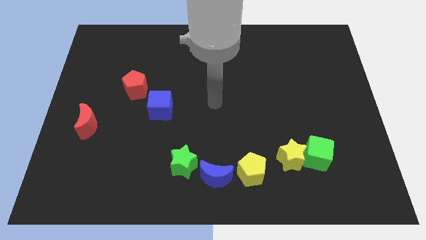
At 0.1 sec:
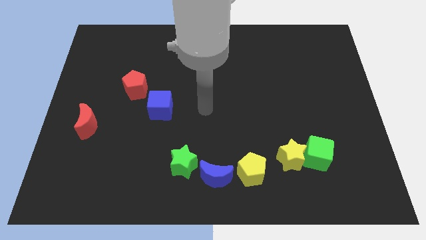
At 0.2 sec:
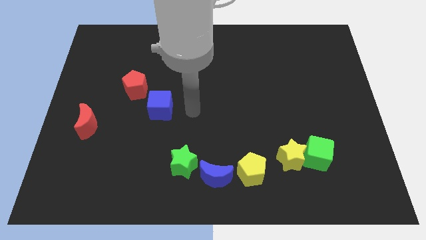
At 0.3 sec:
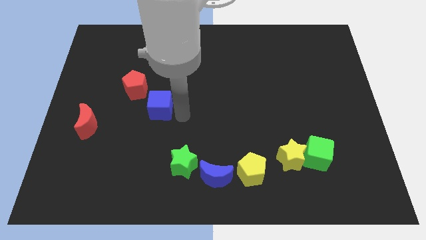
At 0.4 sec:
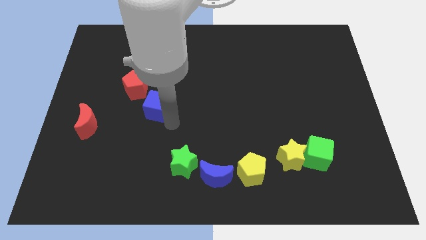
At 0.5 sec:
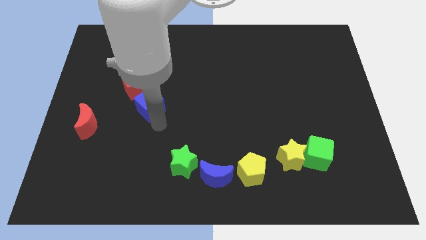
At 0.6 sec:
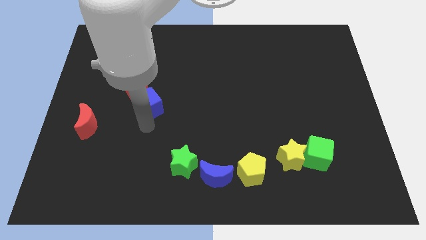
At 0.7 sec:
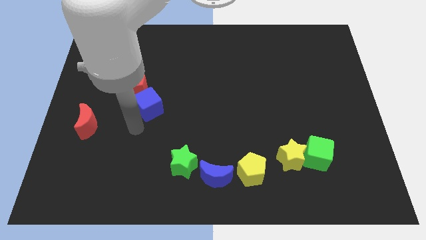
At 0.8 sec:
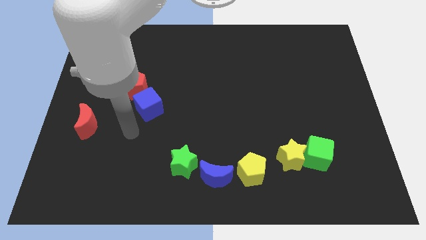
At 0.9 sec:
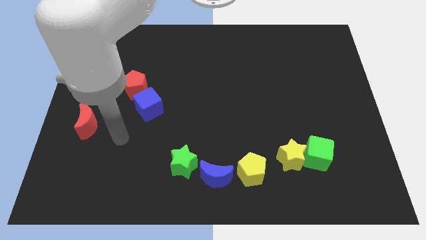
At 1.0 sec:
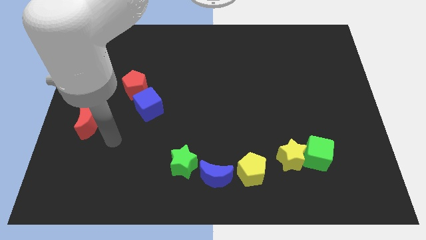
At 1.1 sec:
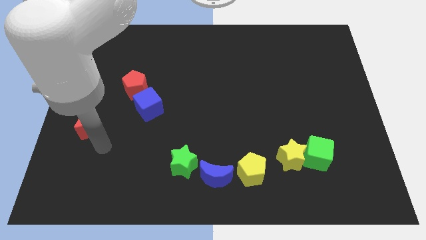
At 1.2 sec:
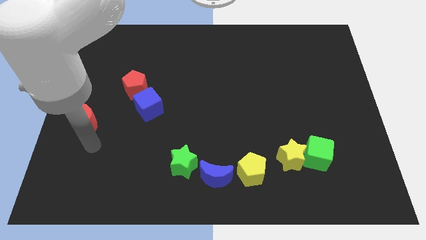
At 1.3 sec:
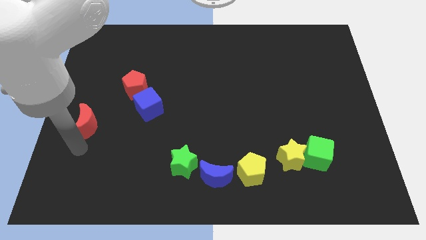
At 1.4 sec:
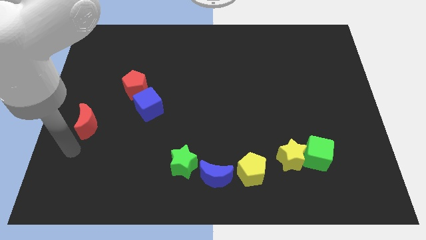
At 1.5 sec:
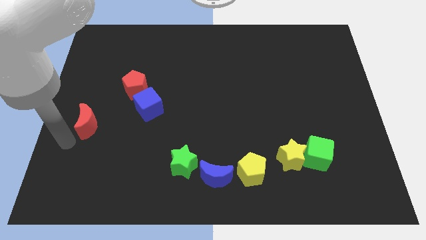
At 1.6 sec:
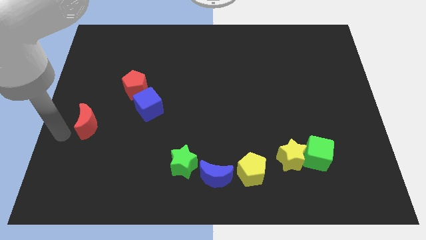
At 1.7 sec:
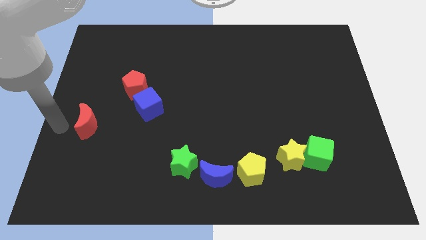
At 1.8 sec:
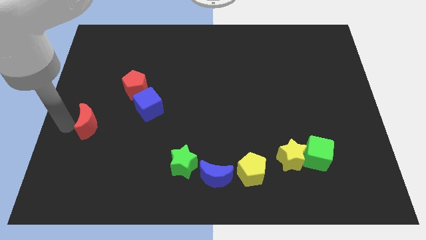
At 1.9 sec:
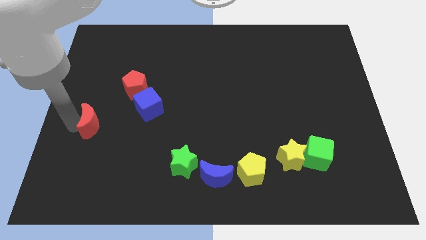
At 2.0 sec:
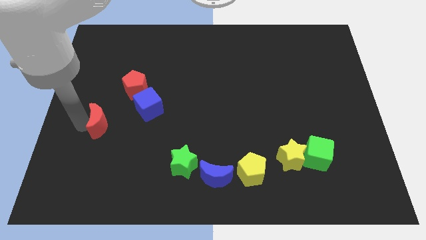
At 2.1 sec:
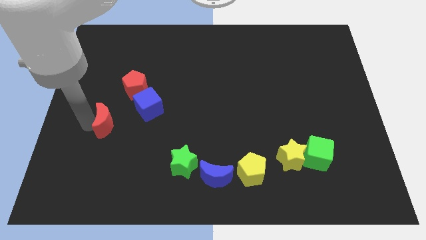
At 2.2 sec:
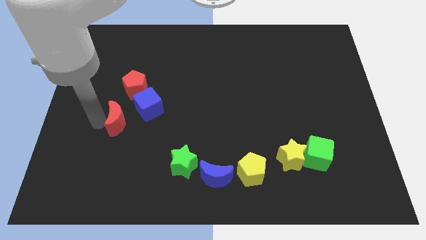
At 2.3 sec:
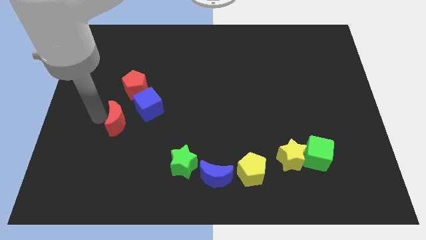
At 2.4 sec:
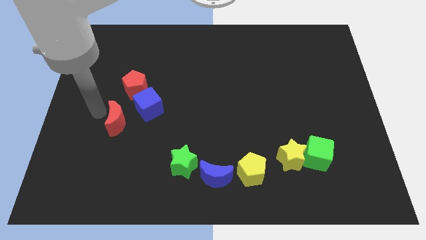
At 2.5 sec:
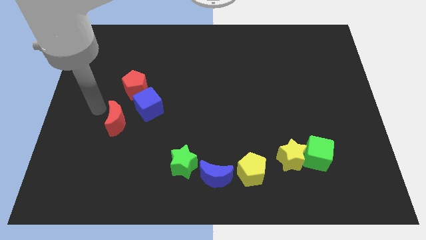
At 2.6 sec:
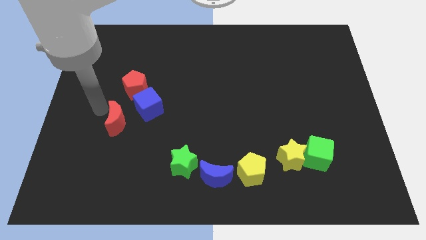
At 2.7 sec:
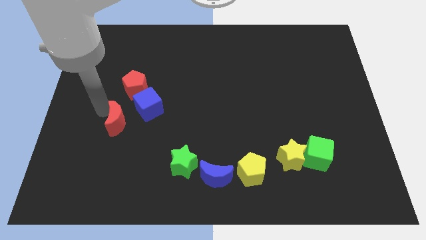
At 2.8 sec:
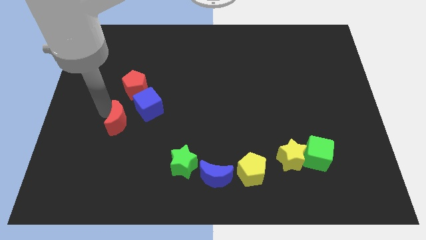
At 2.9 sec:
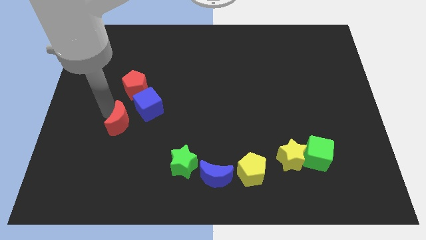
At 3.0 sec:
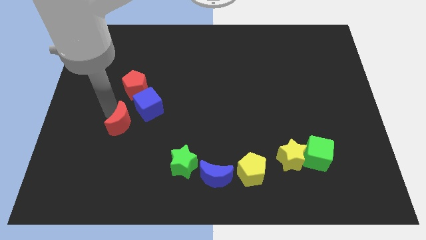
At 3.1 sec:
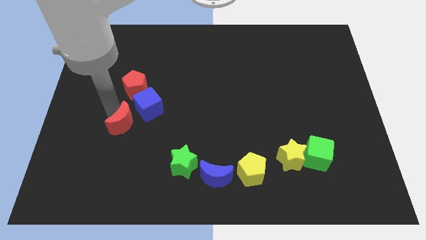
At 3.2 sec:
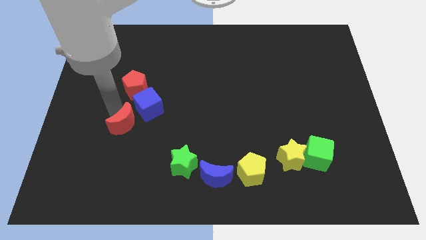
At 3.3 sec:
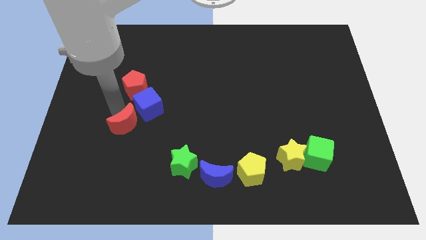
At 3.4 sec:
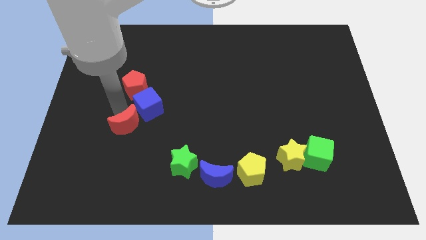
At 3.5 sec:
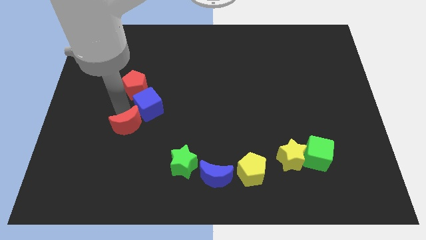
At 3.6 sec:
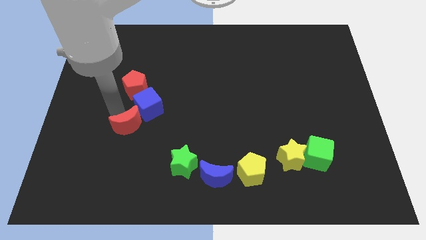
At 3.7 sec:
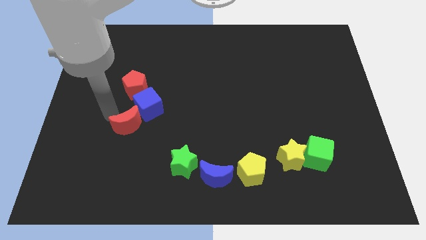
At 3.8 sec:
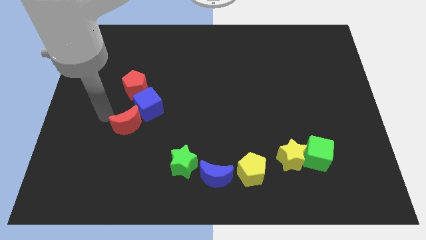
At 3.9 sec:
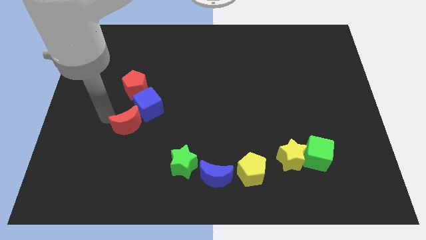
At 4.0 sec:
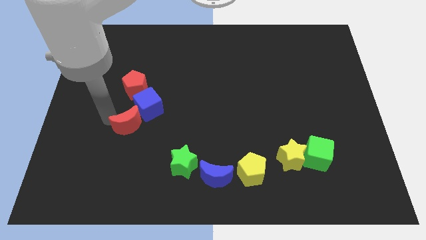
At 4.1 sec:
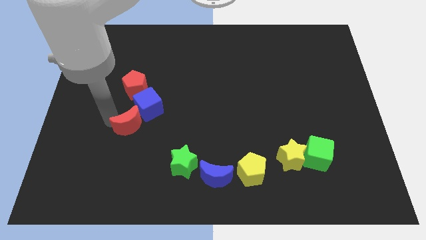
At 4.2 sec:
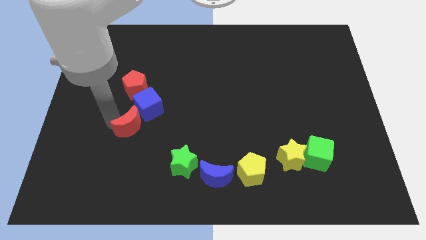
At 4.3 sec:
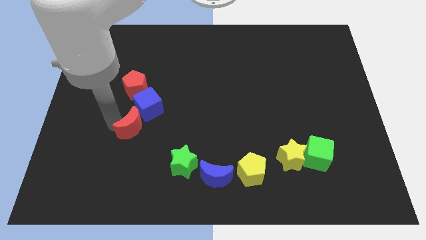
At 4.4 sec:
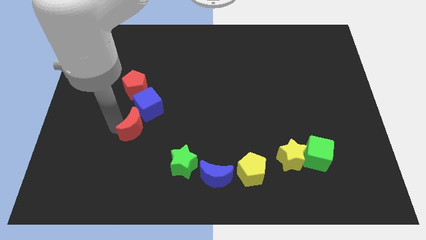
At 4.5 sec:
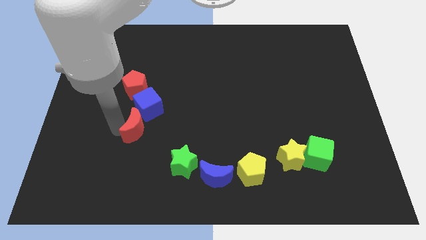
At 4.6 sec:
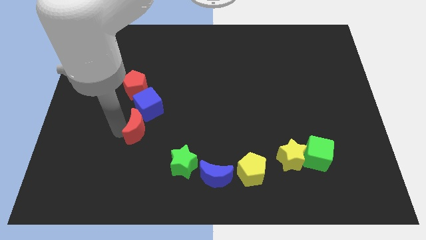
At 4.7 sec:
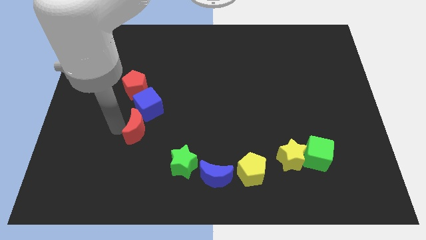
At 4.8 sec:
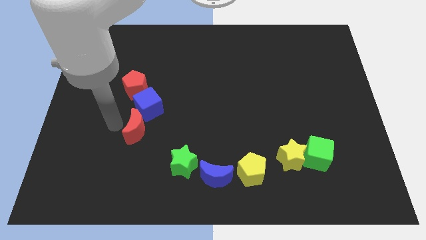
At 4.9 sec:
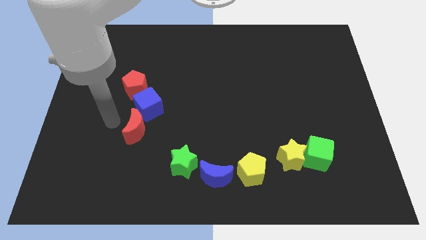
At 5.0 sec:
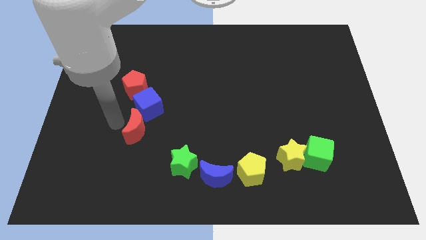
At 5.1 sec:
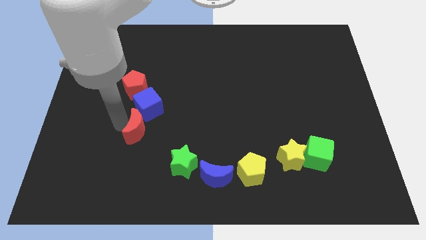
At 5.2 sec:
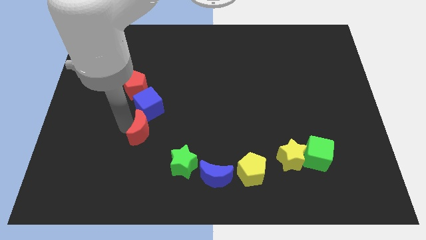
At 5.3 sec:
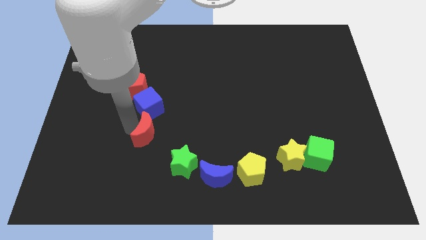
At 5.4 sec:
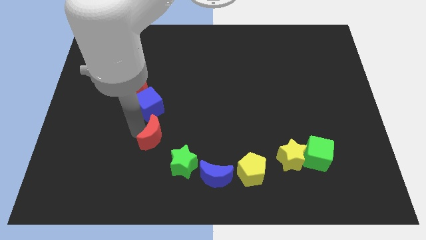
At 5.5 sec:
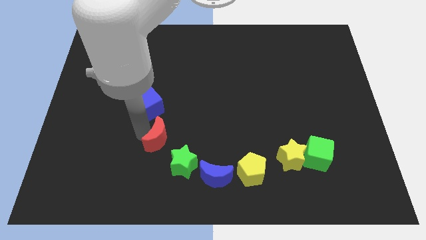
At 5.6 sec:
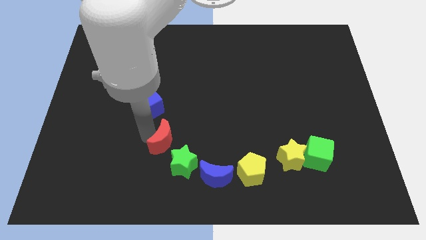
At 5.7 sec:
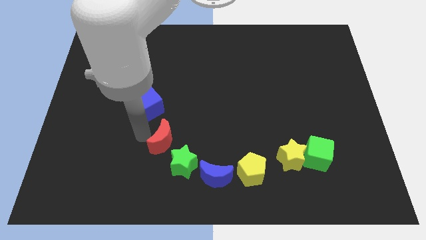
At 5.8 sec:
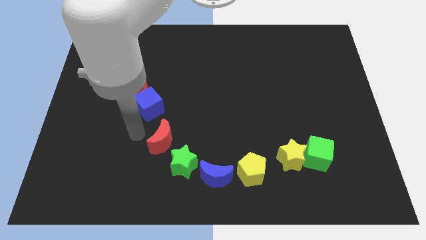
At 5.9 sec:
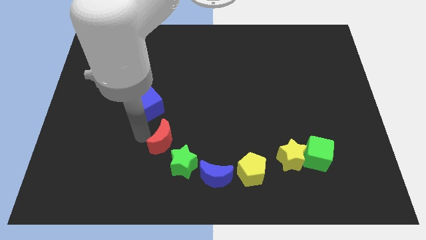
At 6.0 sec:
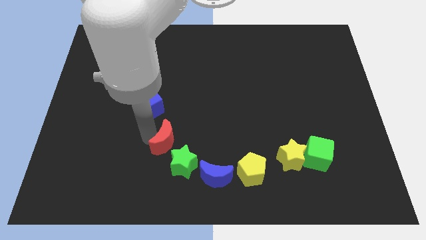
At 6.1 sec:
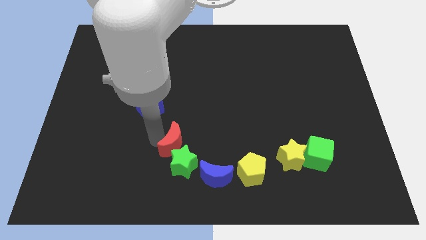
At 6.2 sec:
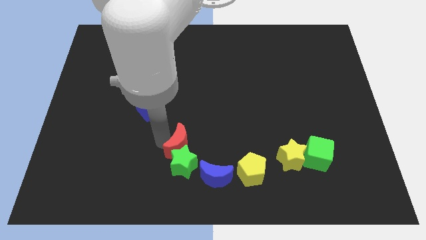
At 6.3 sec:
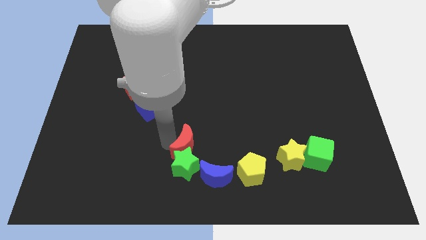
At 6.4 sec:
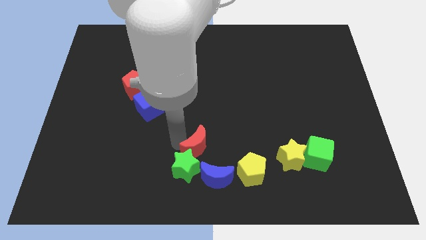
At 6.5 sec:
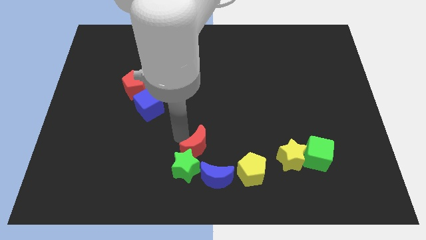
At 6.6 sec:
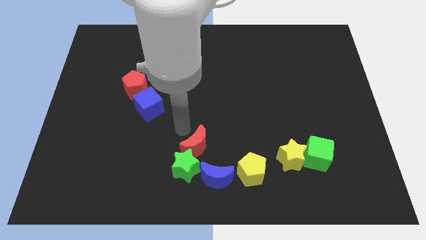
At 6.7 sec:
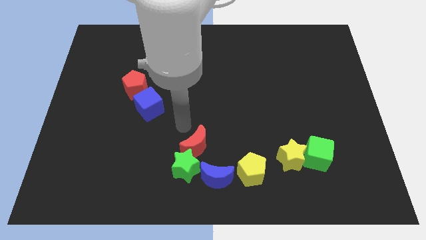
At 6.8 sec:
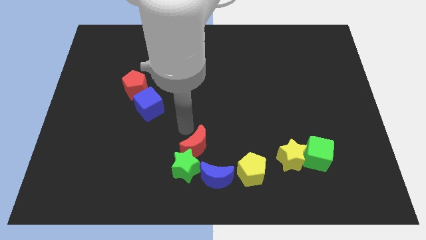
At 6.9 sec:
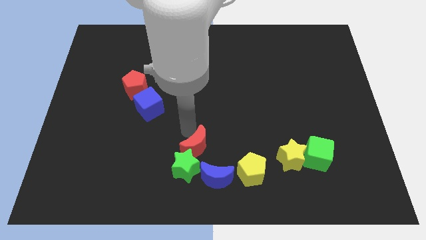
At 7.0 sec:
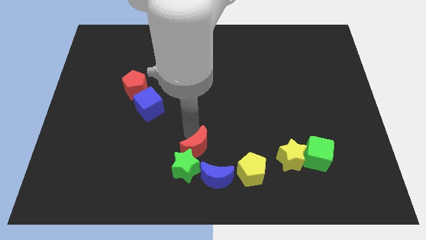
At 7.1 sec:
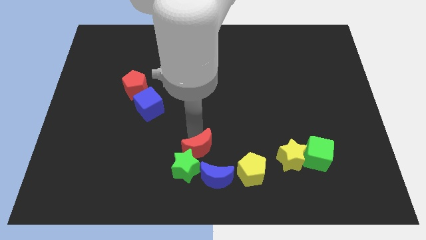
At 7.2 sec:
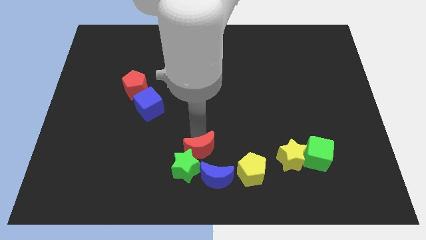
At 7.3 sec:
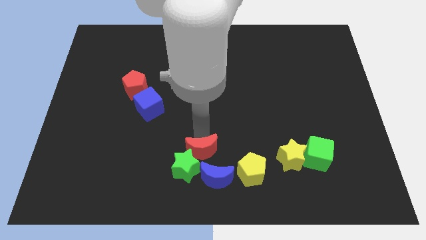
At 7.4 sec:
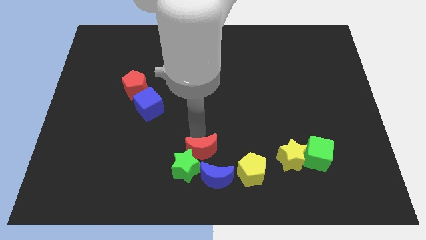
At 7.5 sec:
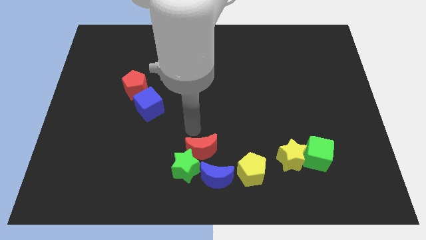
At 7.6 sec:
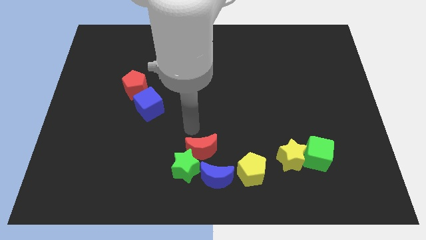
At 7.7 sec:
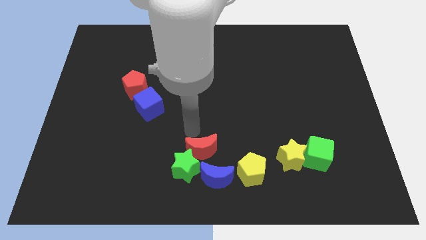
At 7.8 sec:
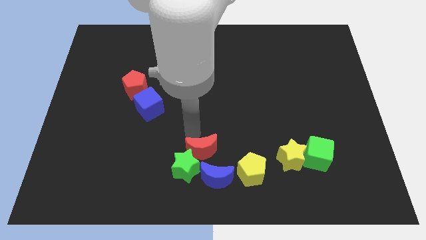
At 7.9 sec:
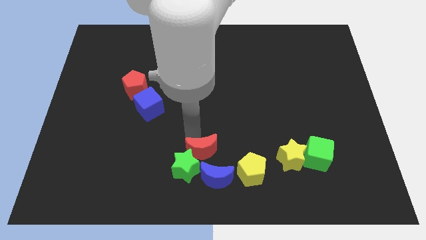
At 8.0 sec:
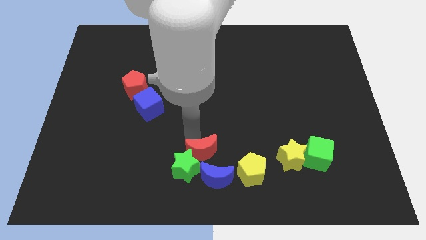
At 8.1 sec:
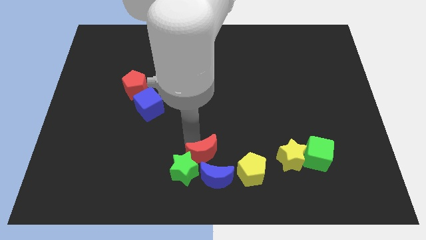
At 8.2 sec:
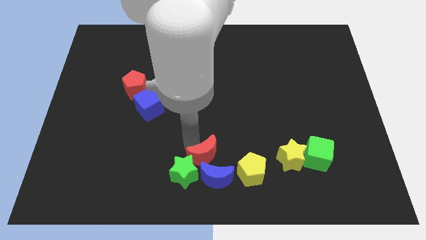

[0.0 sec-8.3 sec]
slide the red moon towards the blue moon
